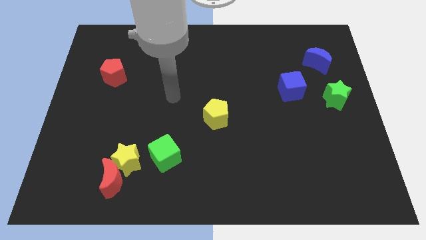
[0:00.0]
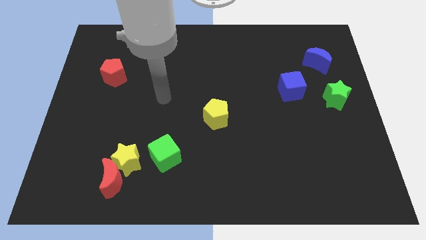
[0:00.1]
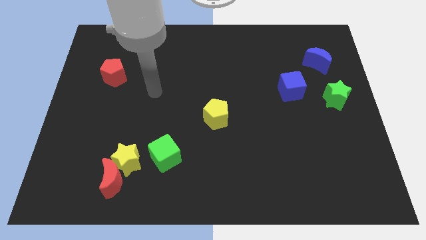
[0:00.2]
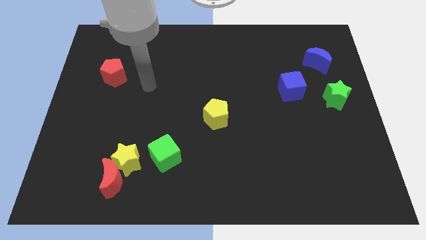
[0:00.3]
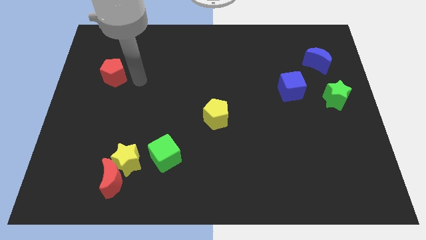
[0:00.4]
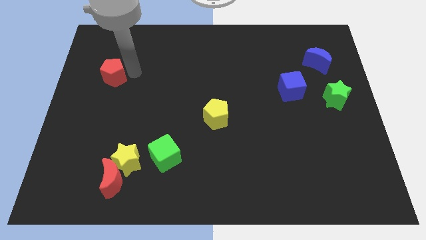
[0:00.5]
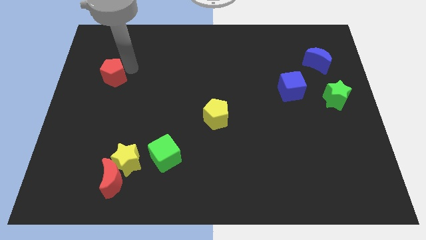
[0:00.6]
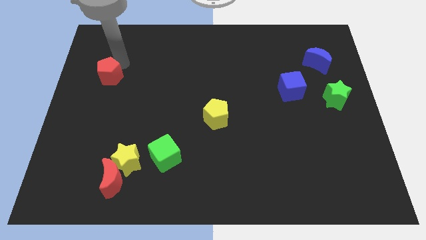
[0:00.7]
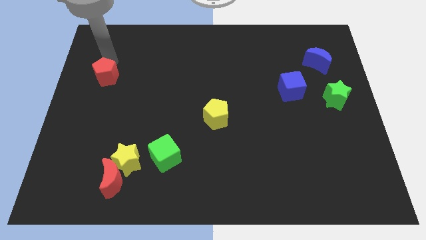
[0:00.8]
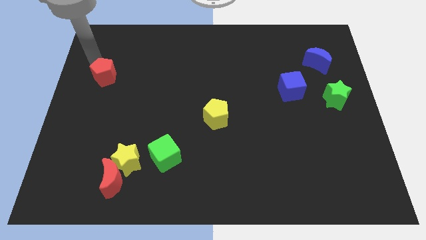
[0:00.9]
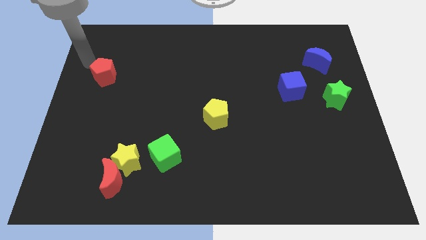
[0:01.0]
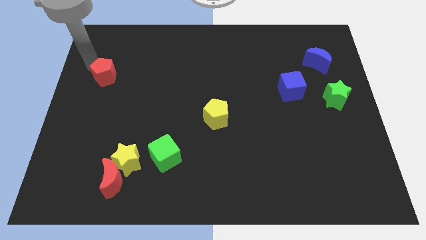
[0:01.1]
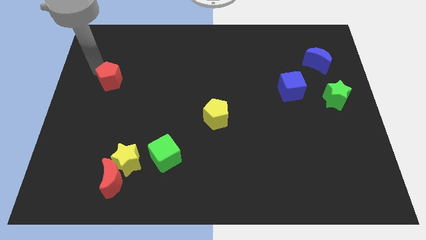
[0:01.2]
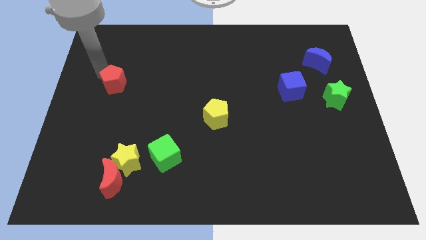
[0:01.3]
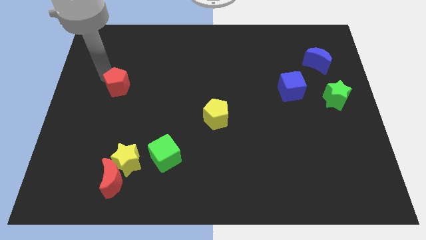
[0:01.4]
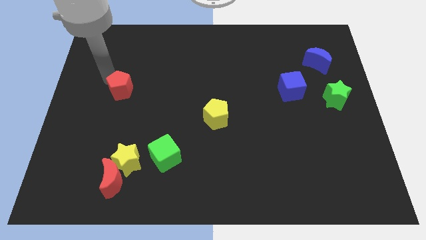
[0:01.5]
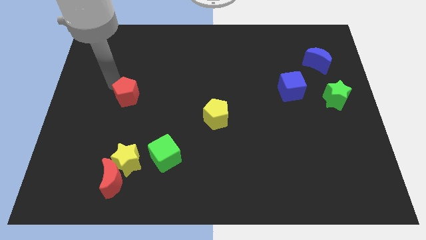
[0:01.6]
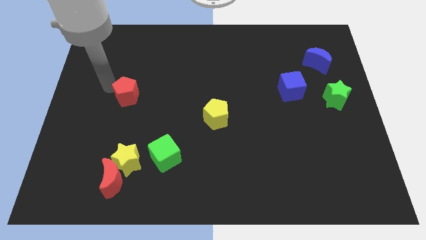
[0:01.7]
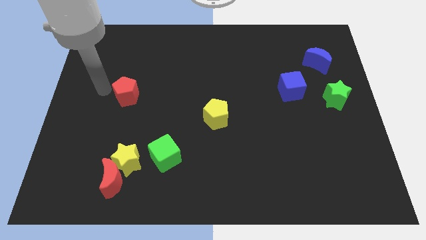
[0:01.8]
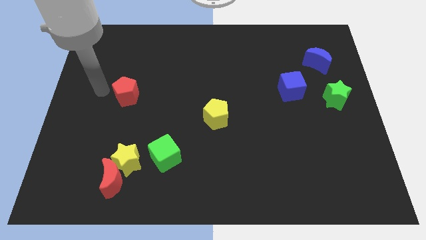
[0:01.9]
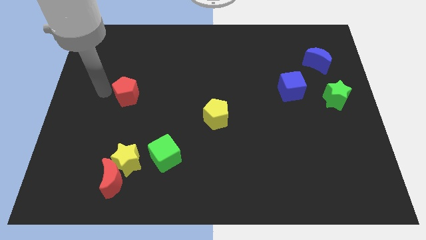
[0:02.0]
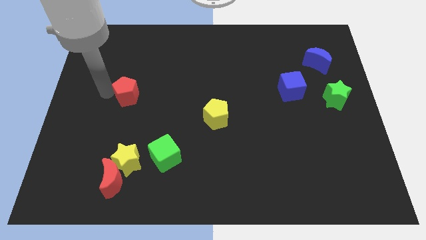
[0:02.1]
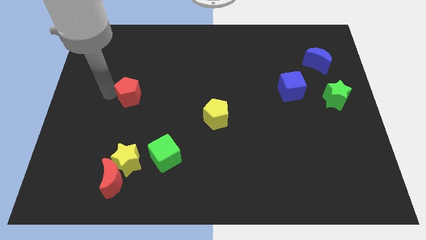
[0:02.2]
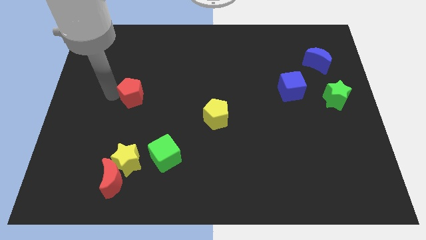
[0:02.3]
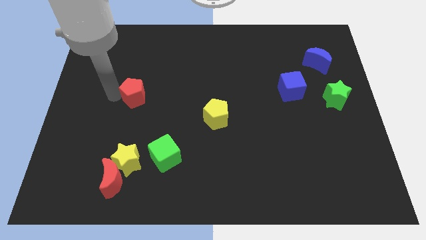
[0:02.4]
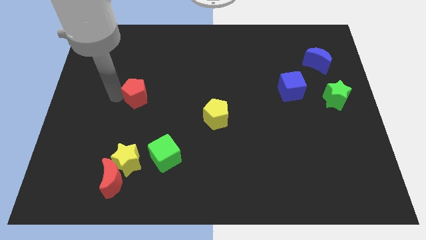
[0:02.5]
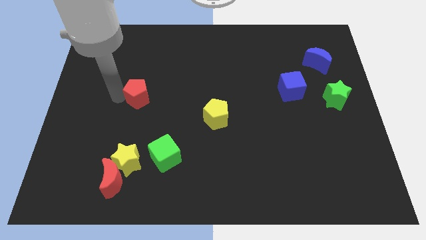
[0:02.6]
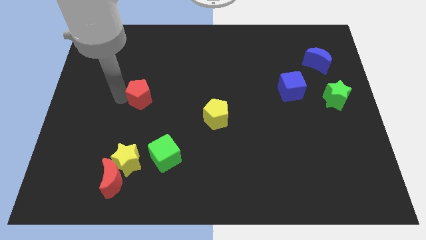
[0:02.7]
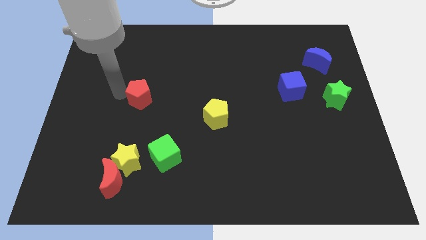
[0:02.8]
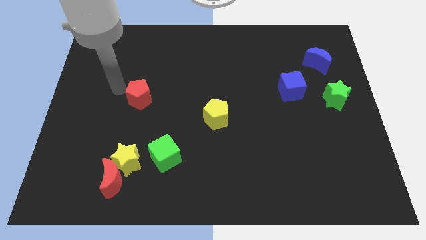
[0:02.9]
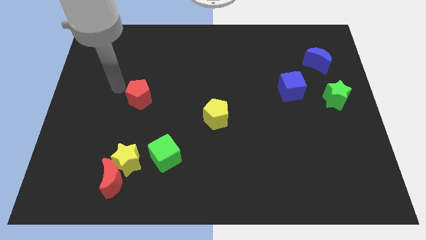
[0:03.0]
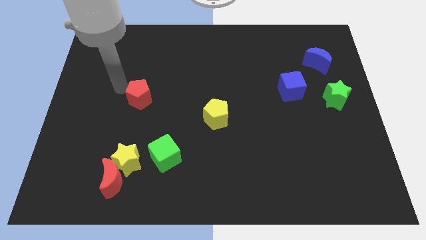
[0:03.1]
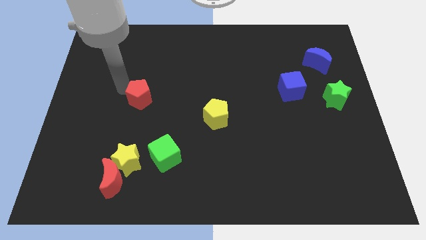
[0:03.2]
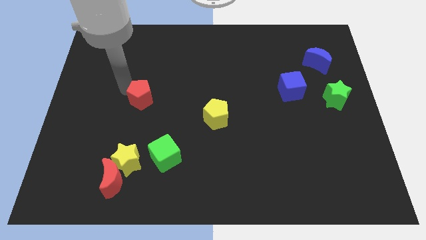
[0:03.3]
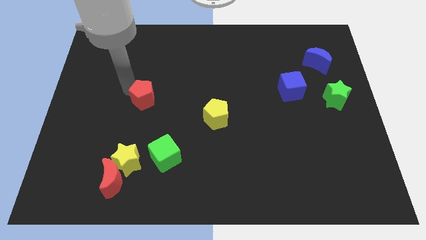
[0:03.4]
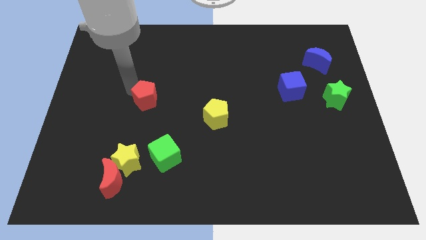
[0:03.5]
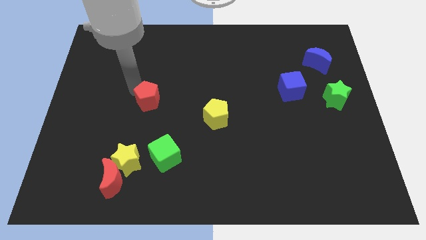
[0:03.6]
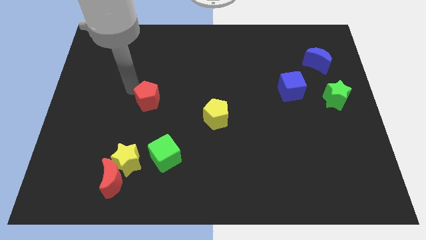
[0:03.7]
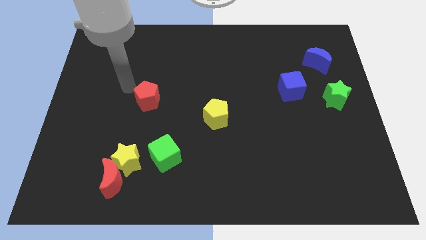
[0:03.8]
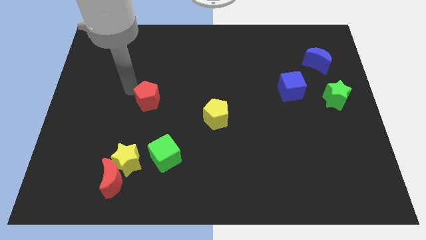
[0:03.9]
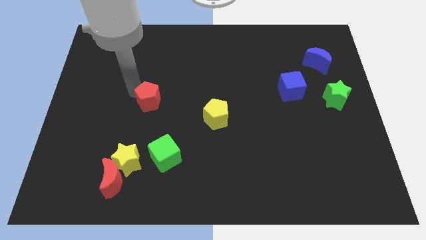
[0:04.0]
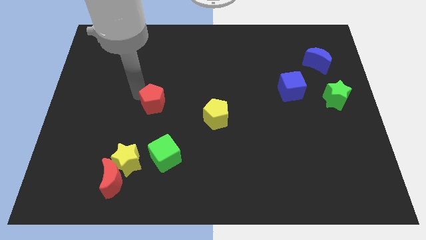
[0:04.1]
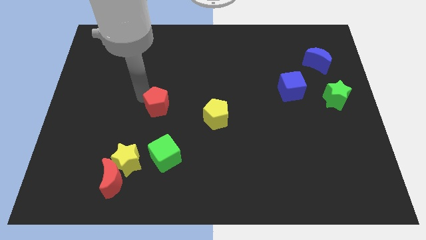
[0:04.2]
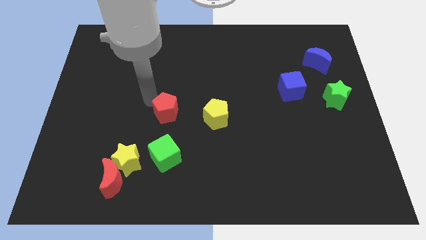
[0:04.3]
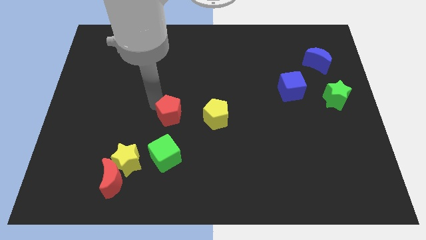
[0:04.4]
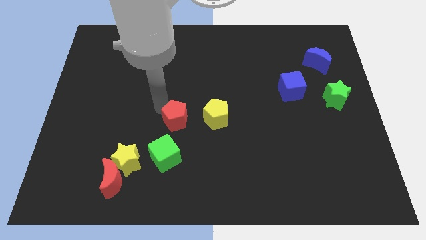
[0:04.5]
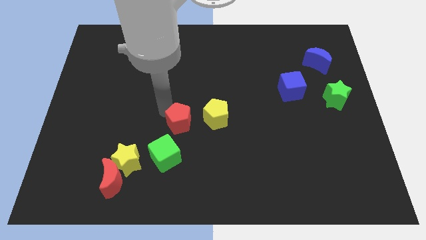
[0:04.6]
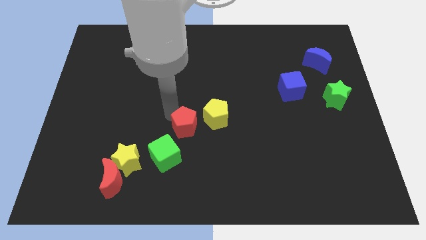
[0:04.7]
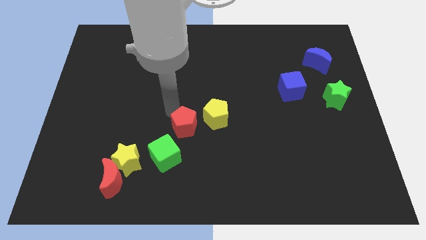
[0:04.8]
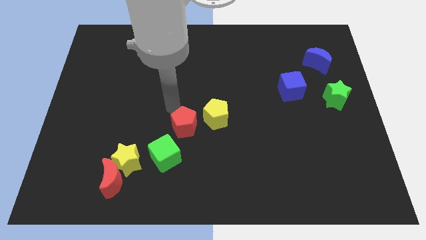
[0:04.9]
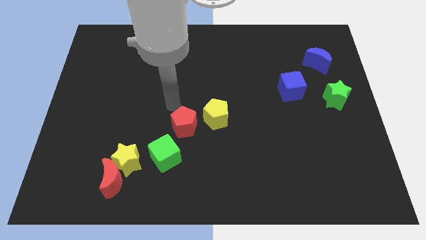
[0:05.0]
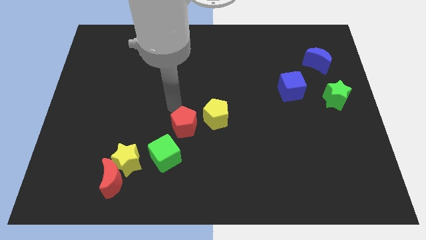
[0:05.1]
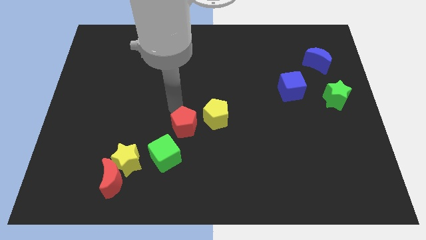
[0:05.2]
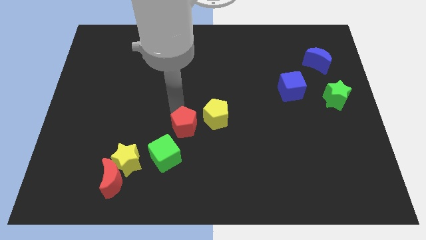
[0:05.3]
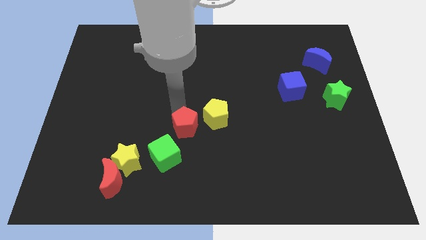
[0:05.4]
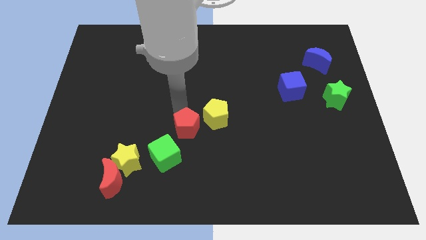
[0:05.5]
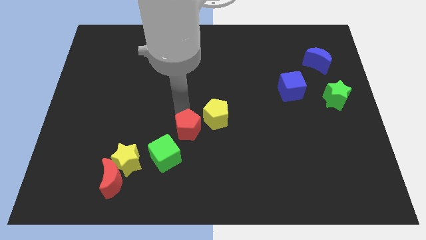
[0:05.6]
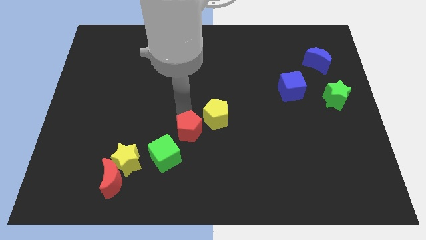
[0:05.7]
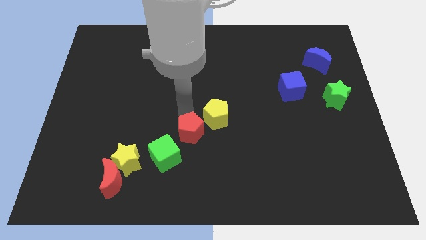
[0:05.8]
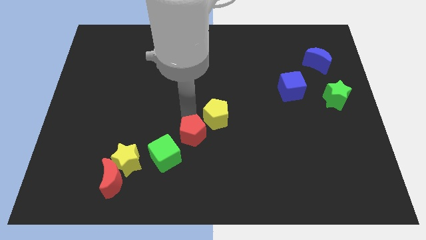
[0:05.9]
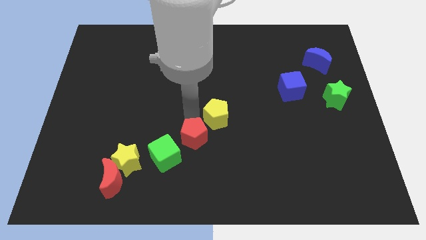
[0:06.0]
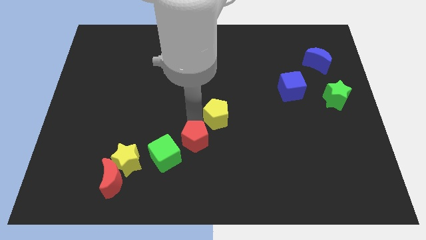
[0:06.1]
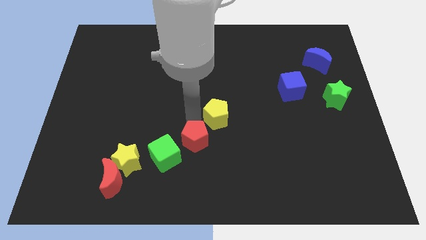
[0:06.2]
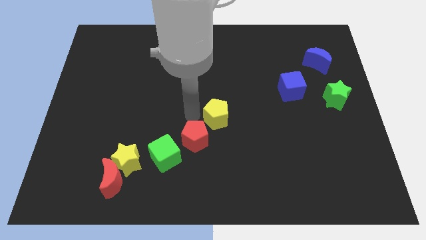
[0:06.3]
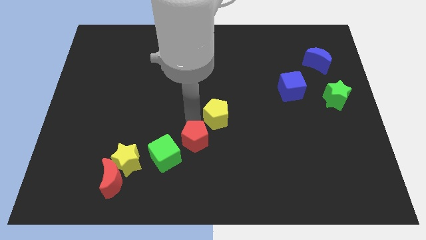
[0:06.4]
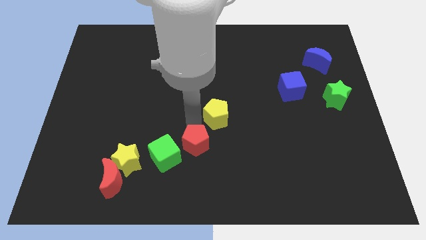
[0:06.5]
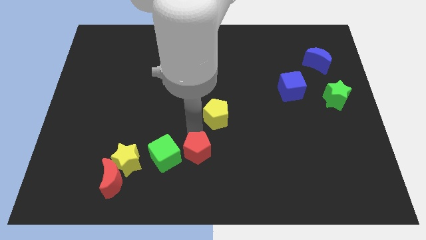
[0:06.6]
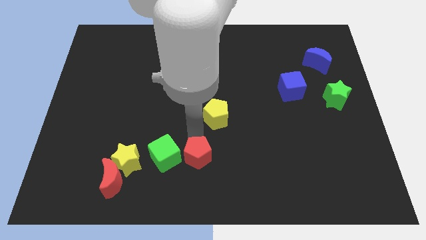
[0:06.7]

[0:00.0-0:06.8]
move the red pentagon to the bottom
